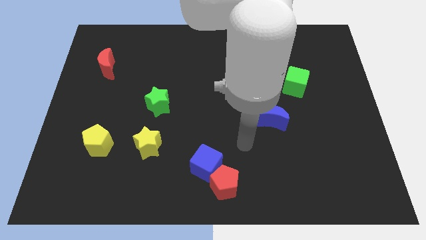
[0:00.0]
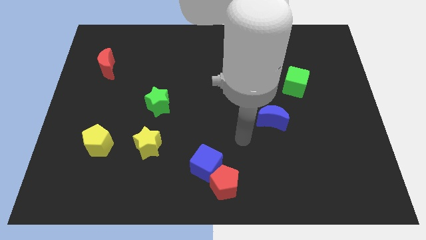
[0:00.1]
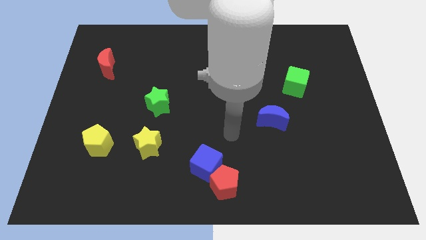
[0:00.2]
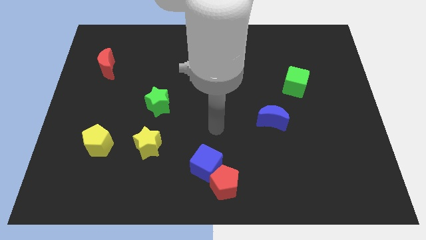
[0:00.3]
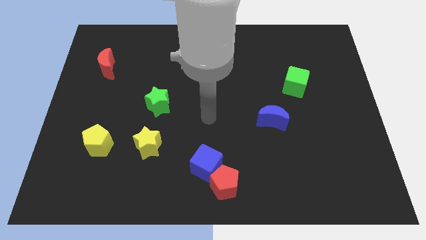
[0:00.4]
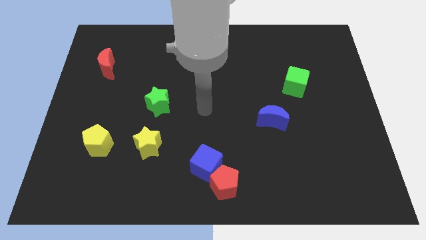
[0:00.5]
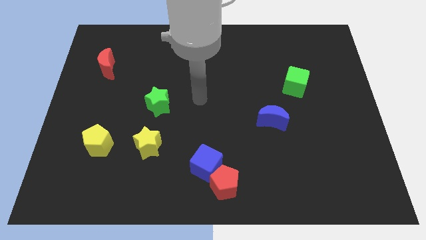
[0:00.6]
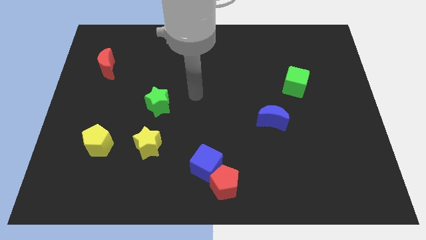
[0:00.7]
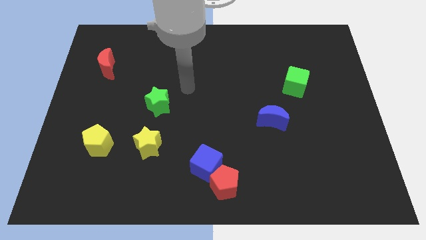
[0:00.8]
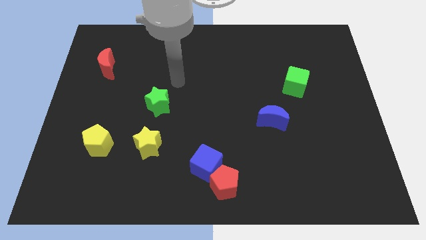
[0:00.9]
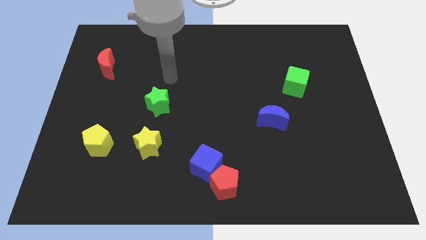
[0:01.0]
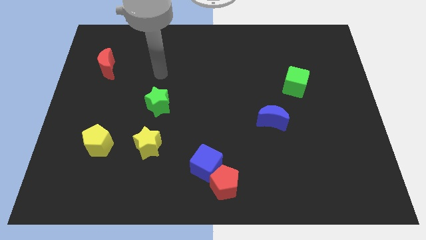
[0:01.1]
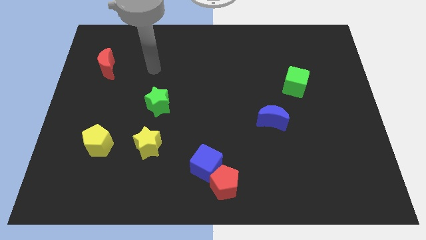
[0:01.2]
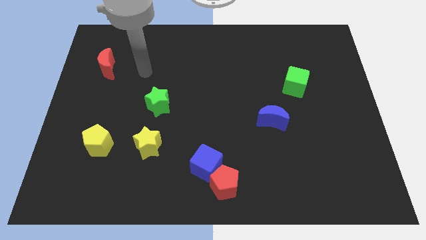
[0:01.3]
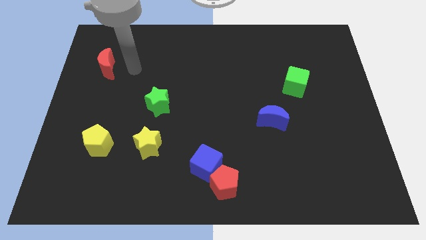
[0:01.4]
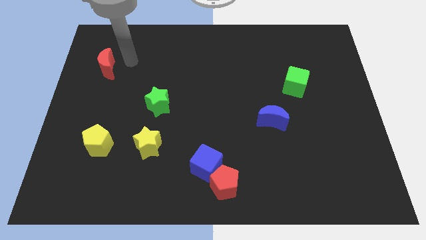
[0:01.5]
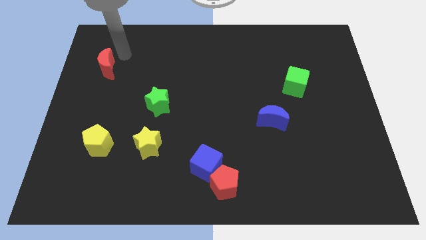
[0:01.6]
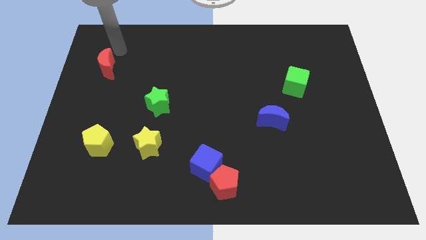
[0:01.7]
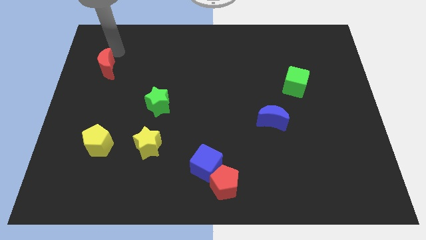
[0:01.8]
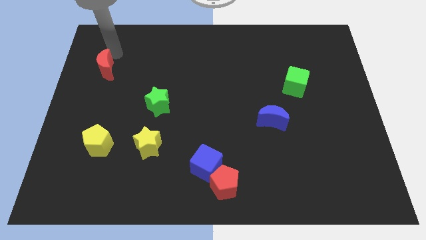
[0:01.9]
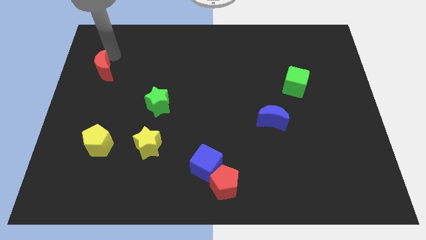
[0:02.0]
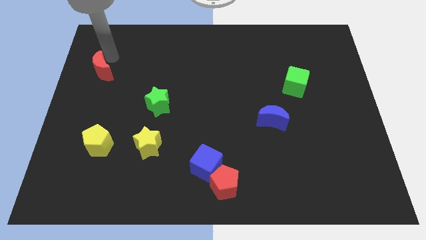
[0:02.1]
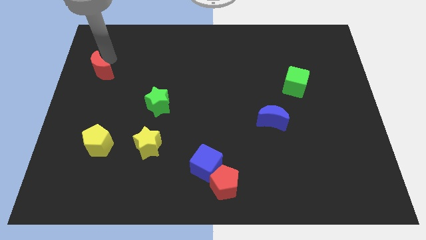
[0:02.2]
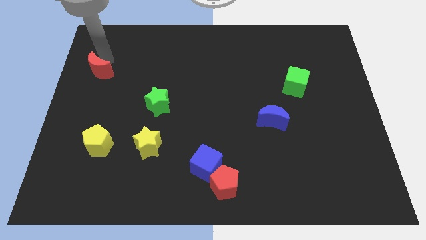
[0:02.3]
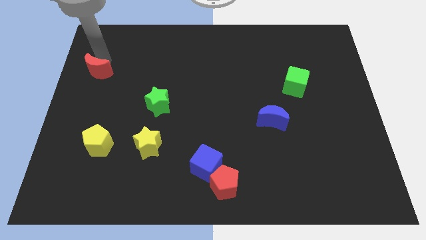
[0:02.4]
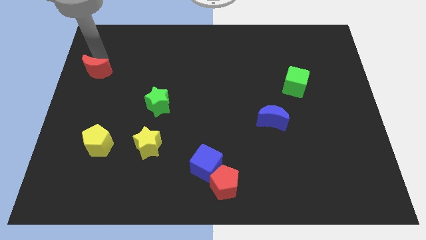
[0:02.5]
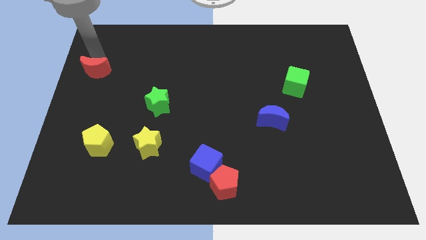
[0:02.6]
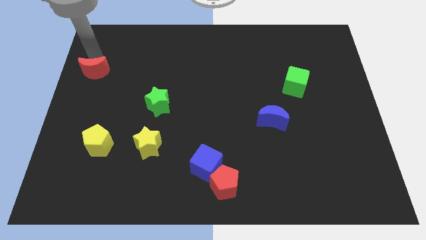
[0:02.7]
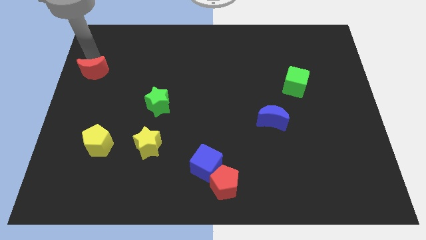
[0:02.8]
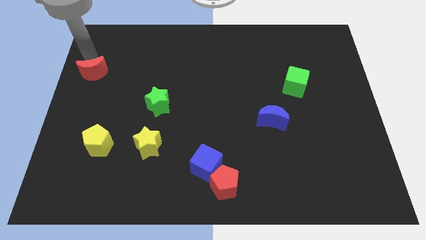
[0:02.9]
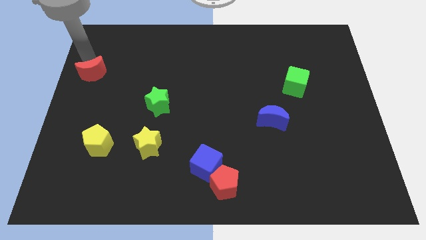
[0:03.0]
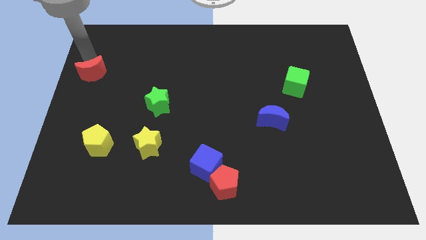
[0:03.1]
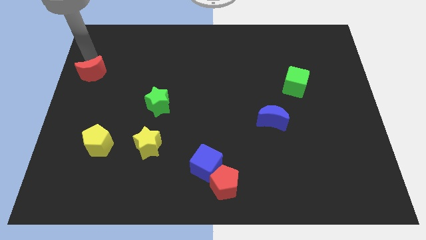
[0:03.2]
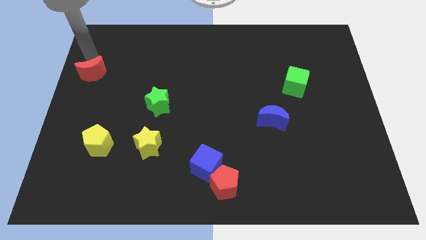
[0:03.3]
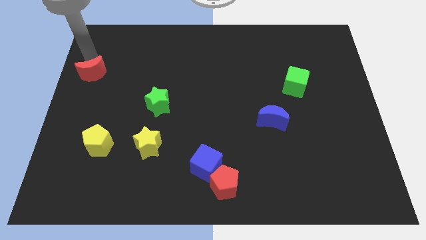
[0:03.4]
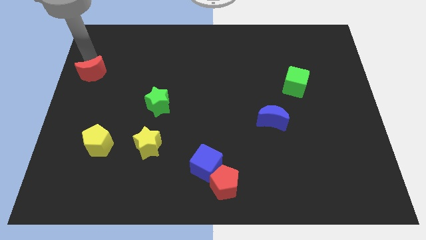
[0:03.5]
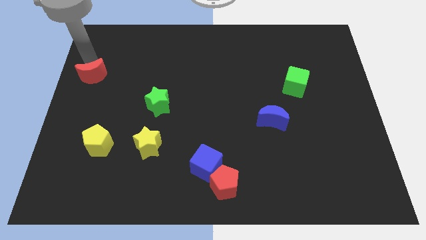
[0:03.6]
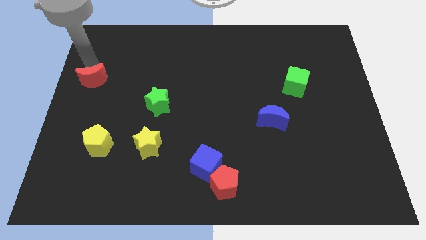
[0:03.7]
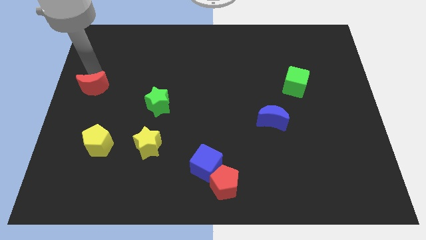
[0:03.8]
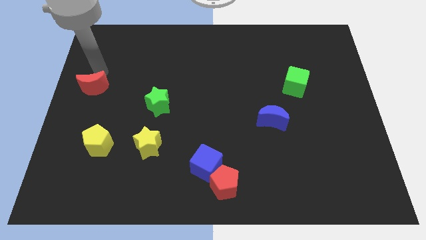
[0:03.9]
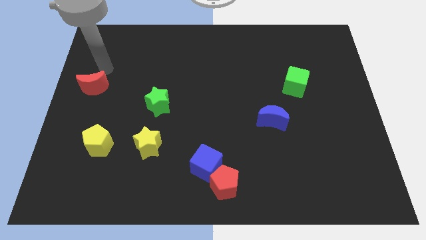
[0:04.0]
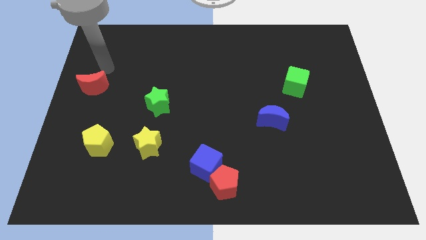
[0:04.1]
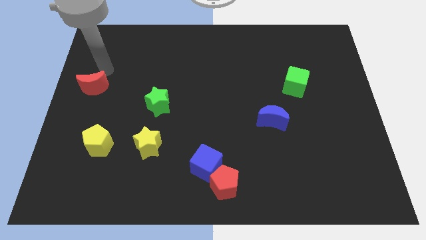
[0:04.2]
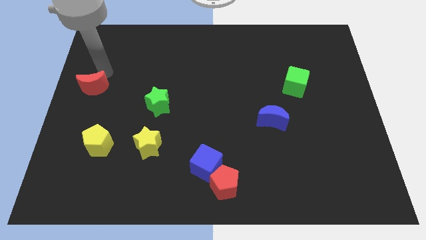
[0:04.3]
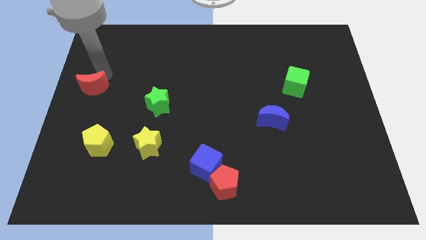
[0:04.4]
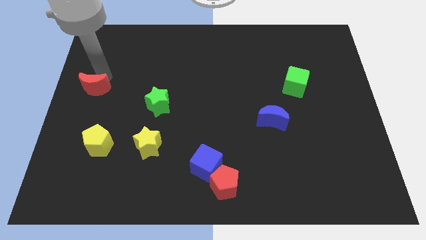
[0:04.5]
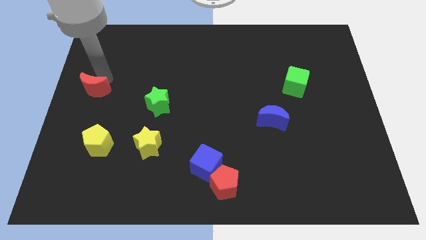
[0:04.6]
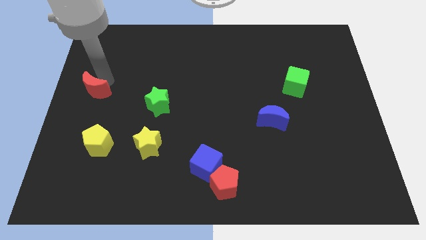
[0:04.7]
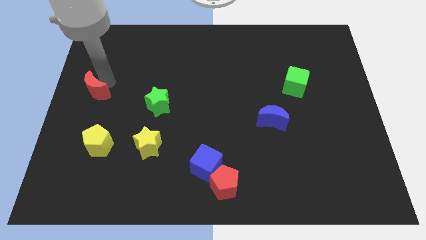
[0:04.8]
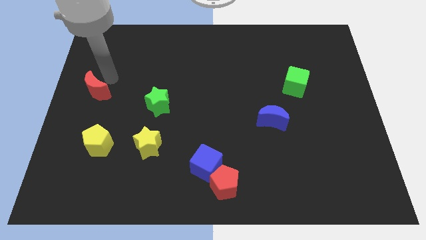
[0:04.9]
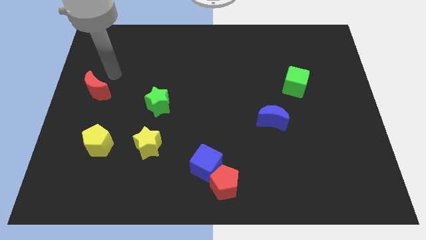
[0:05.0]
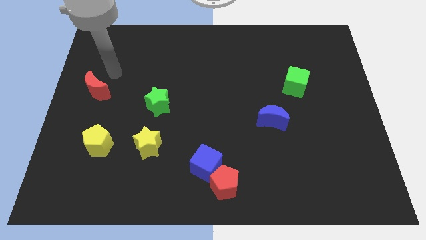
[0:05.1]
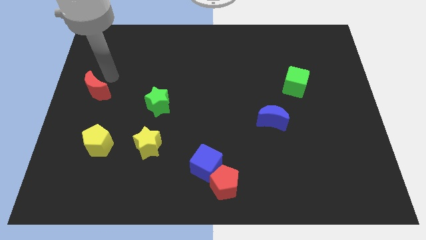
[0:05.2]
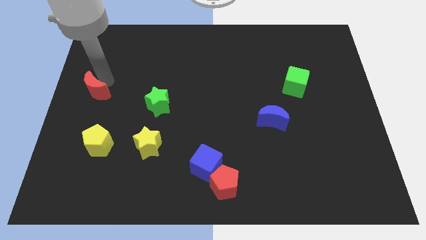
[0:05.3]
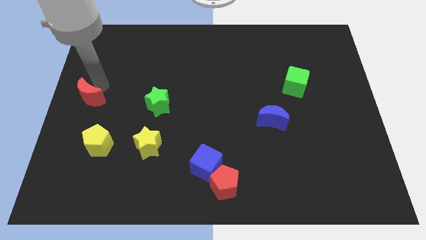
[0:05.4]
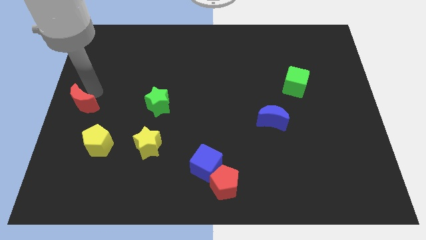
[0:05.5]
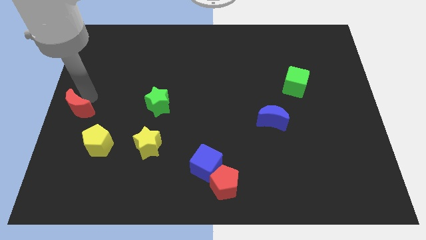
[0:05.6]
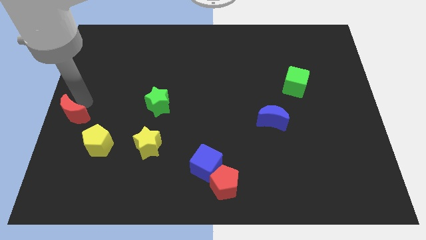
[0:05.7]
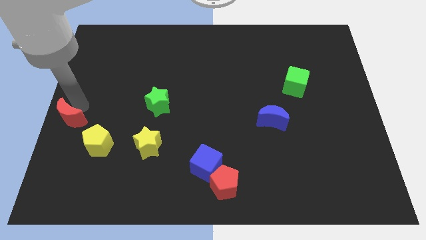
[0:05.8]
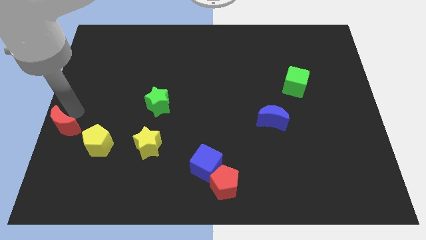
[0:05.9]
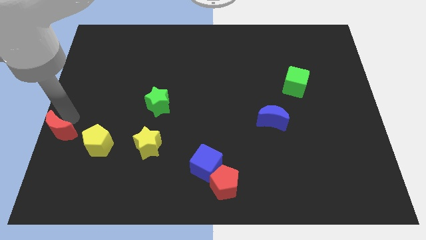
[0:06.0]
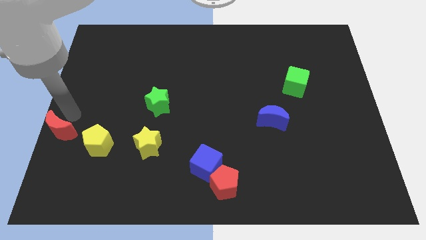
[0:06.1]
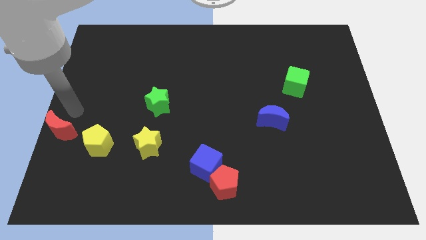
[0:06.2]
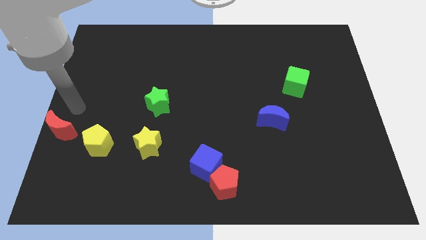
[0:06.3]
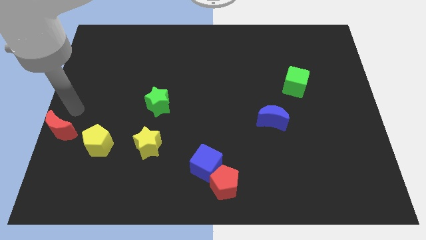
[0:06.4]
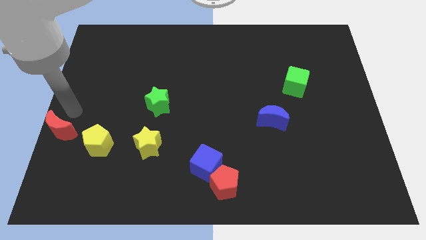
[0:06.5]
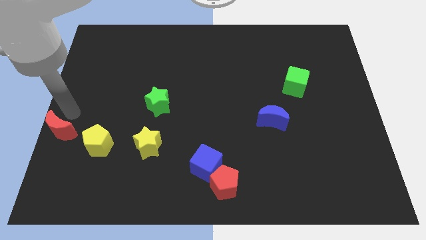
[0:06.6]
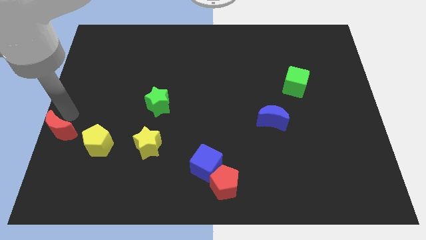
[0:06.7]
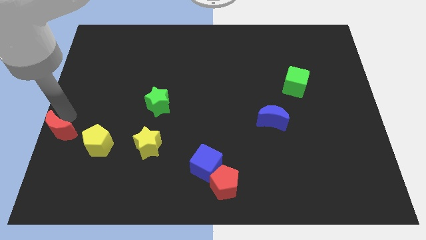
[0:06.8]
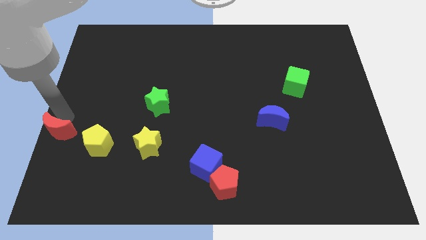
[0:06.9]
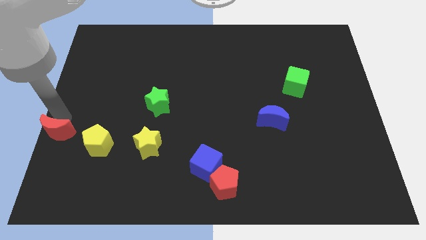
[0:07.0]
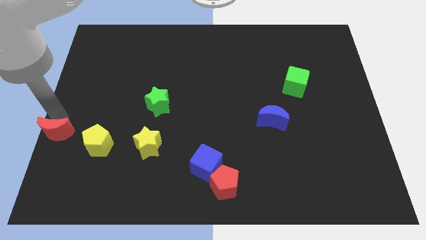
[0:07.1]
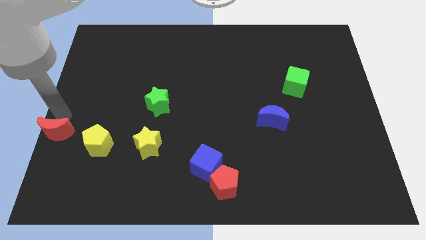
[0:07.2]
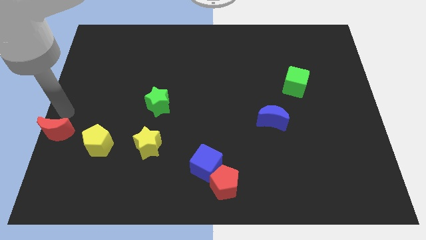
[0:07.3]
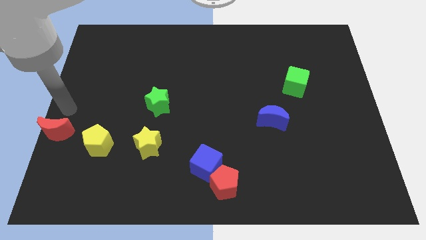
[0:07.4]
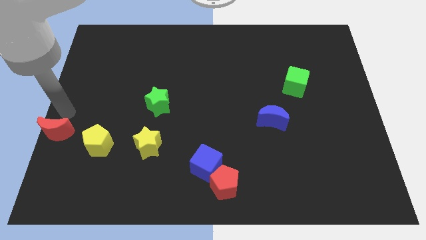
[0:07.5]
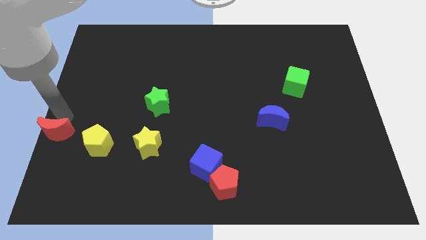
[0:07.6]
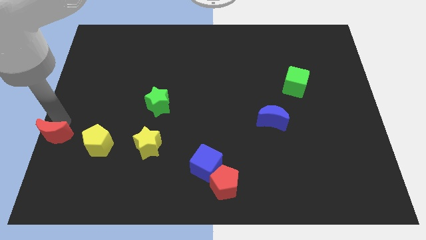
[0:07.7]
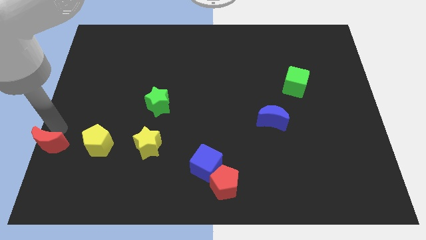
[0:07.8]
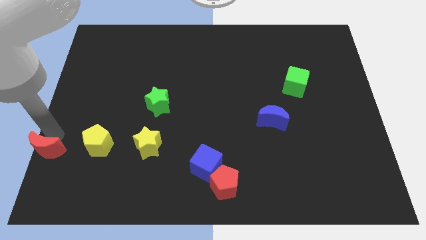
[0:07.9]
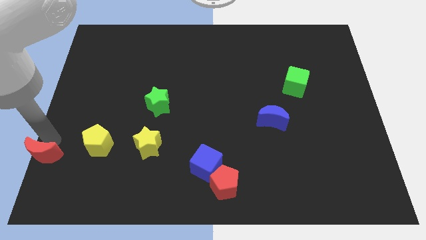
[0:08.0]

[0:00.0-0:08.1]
put the red moon to the bottom left of the board
